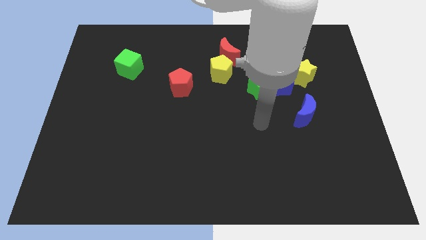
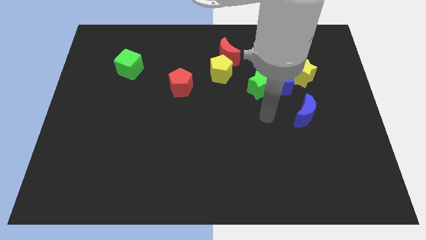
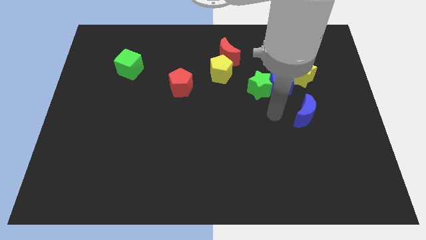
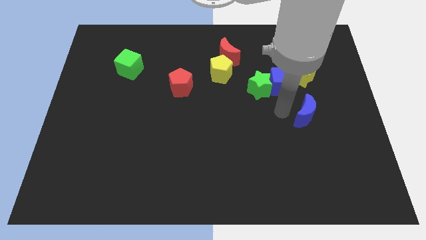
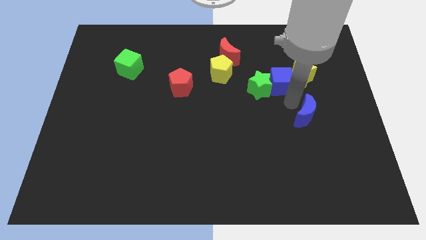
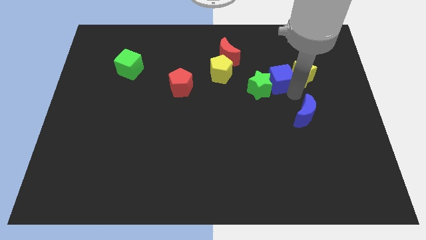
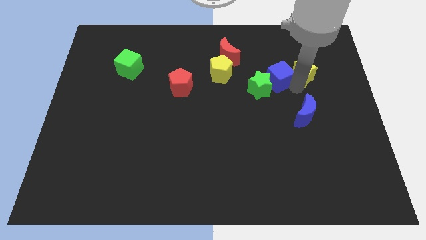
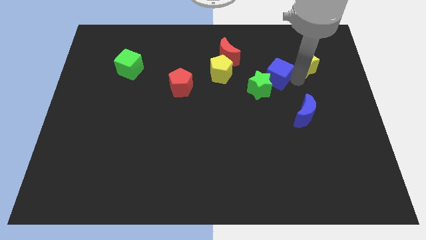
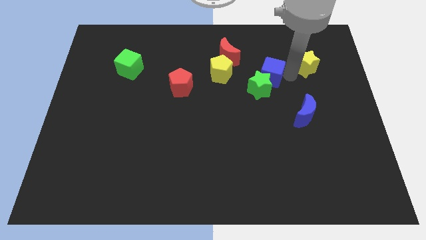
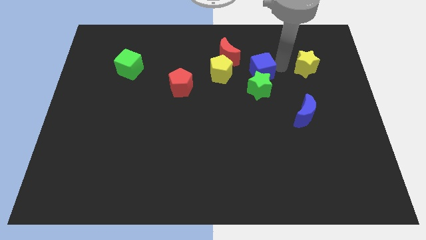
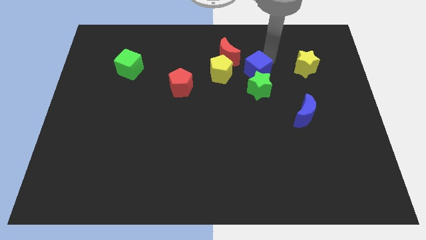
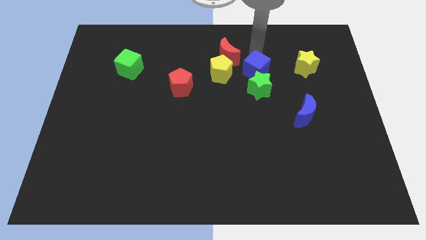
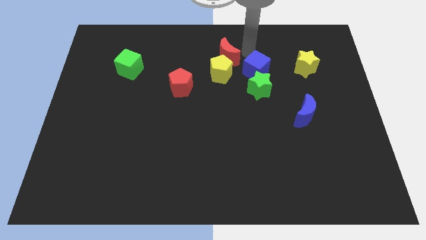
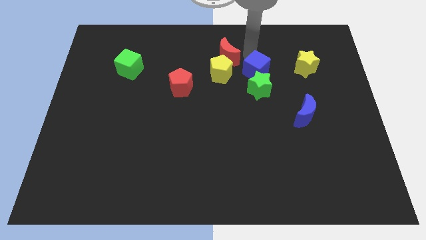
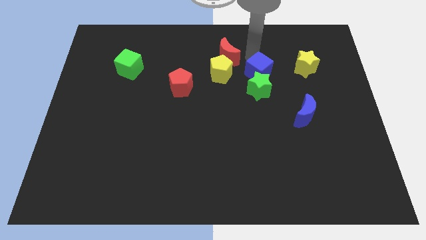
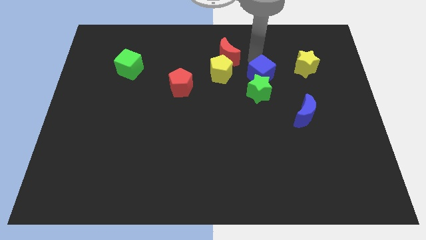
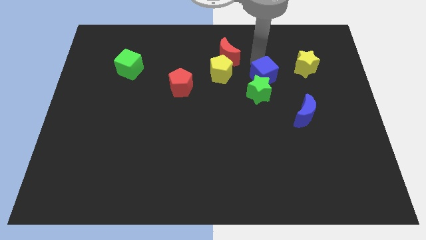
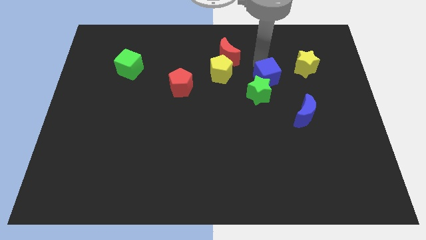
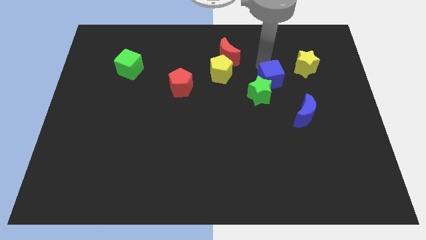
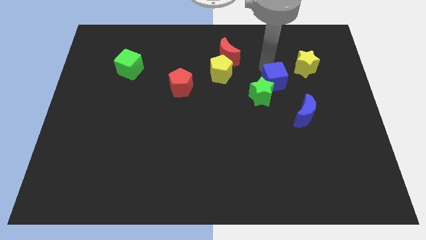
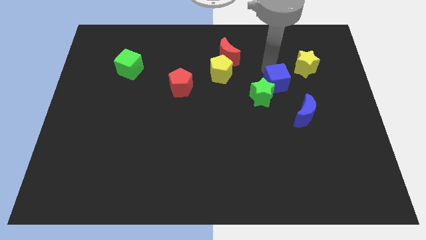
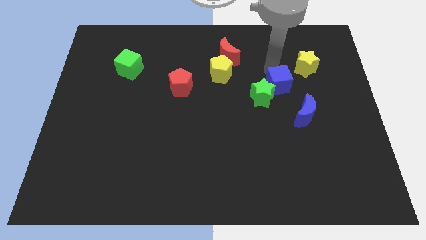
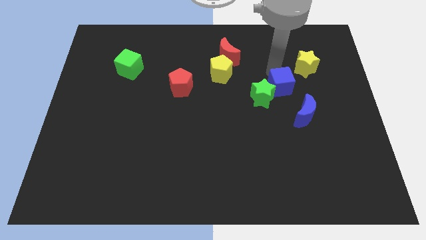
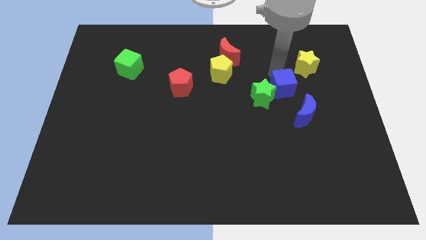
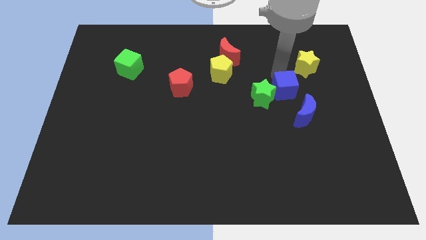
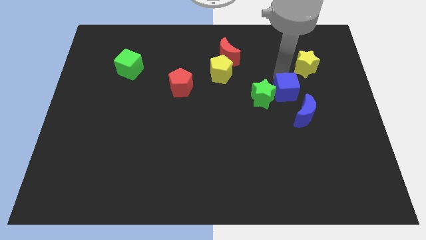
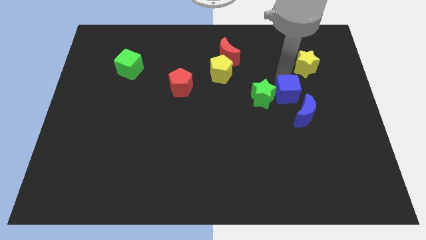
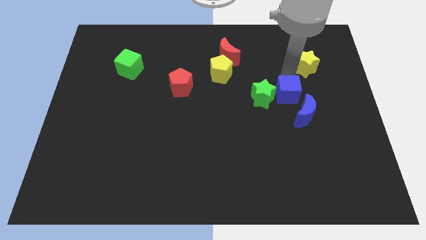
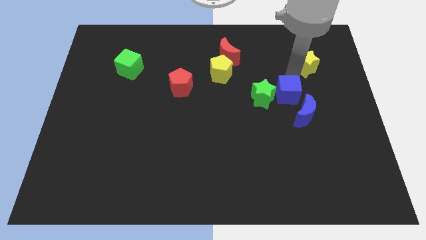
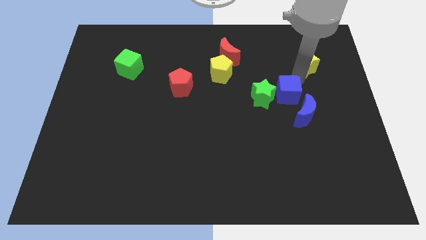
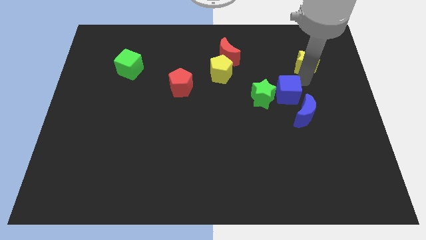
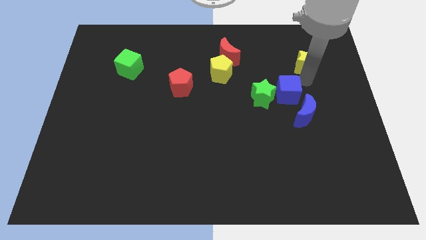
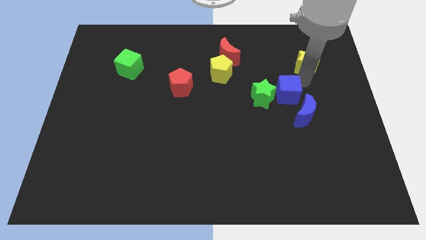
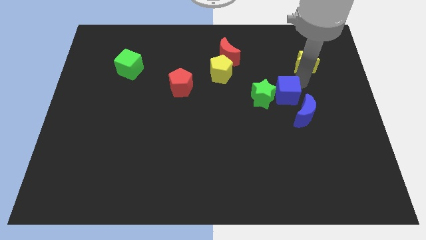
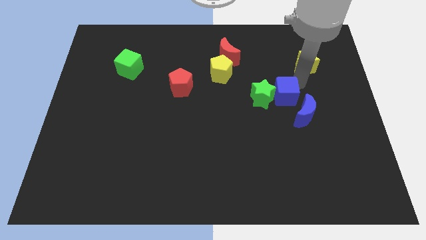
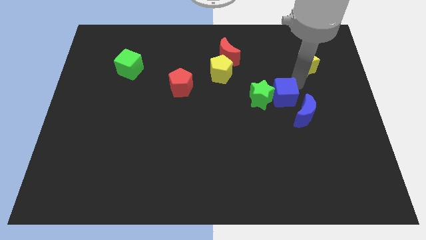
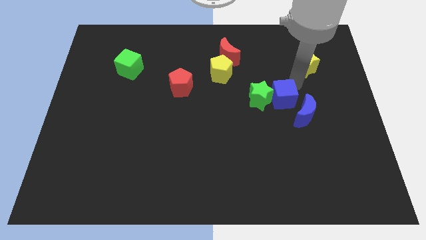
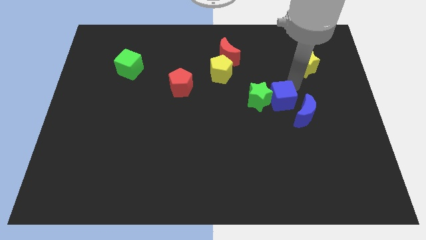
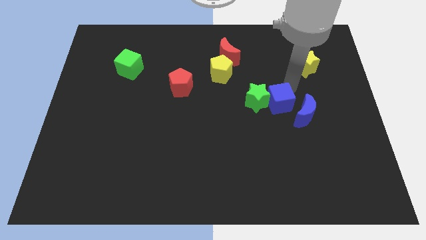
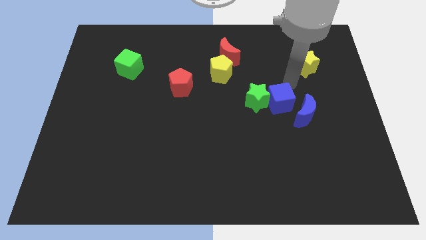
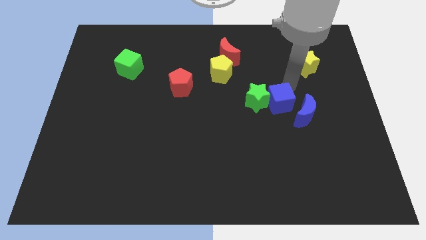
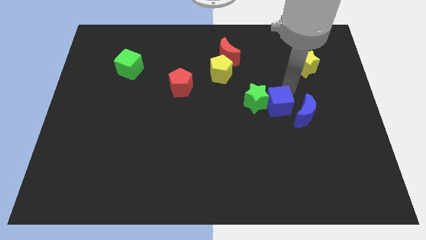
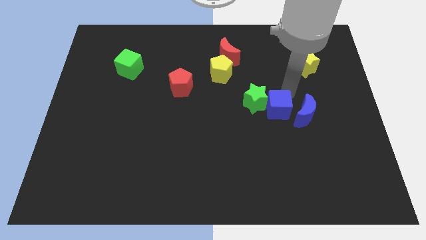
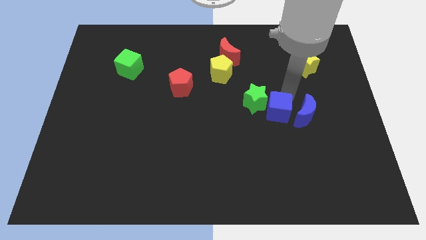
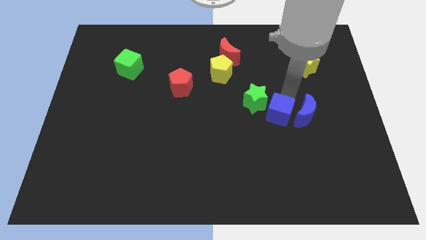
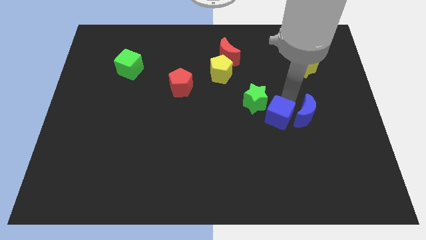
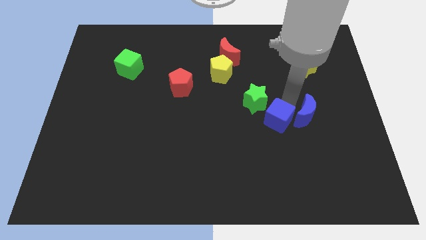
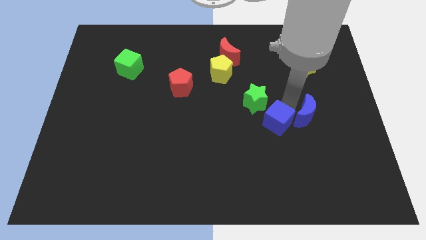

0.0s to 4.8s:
move the blue cube below the green star

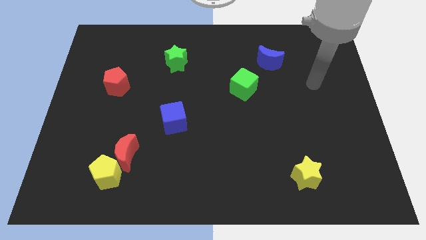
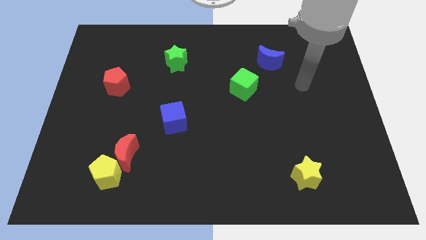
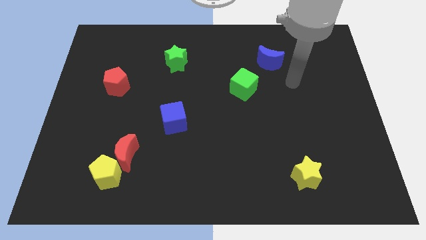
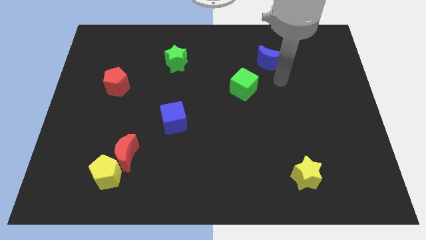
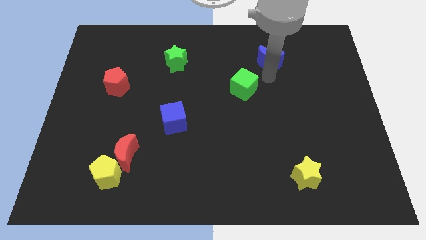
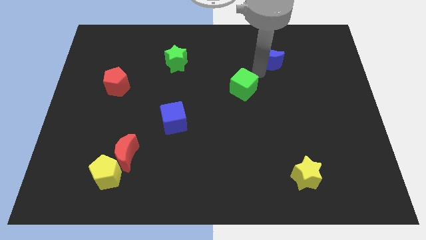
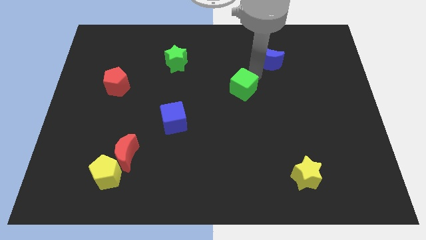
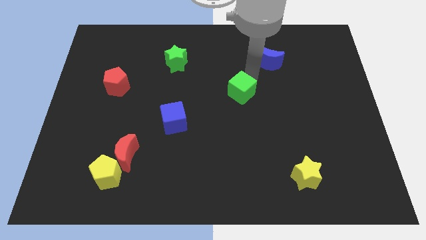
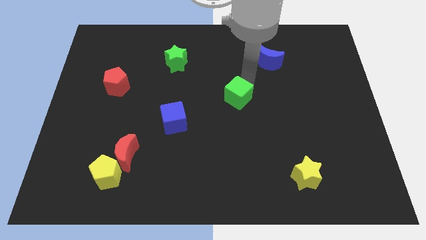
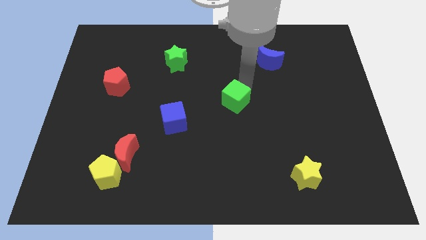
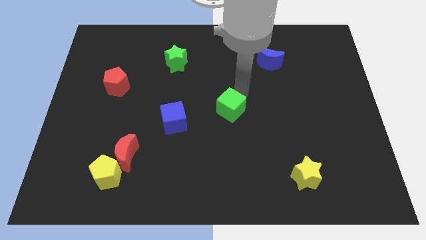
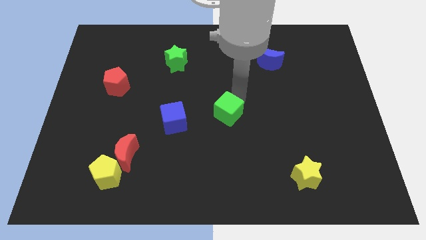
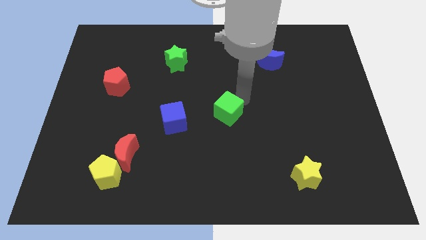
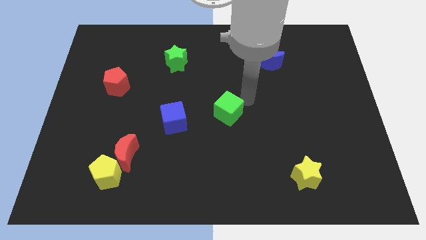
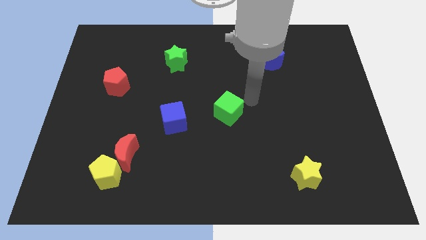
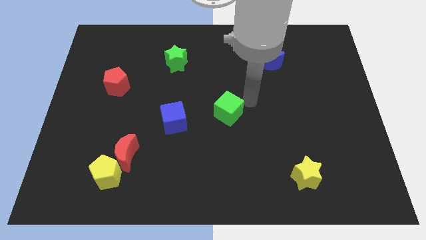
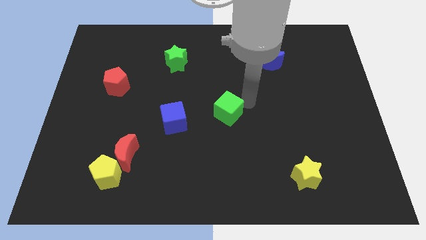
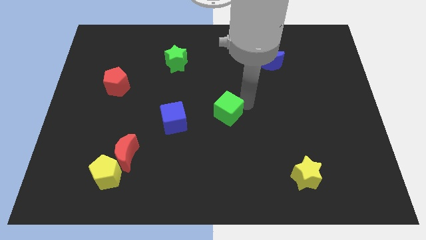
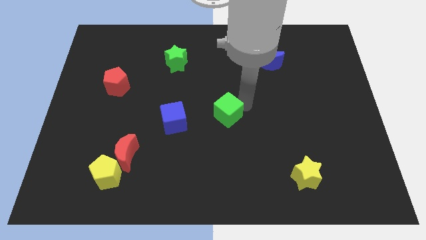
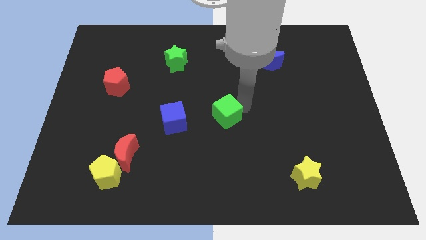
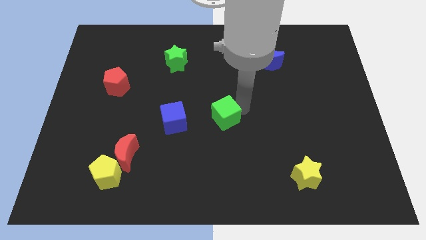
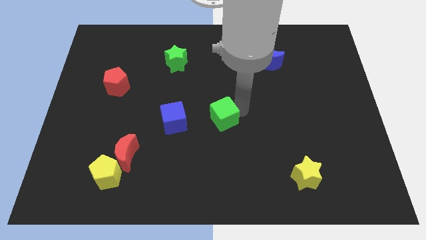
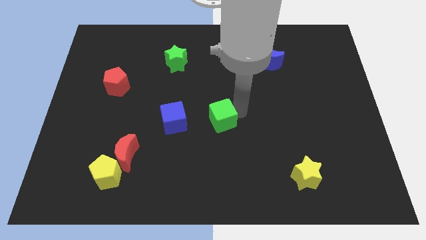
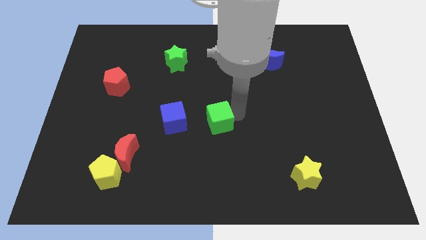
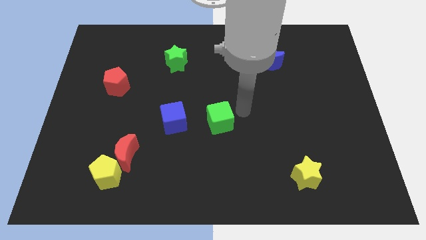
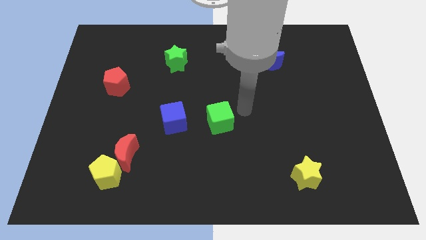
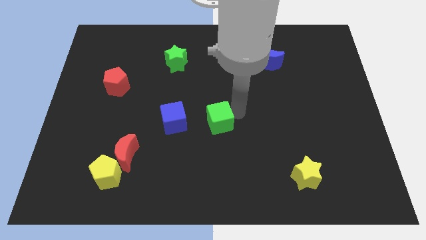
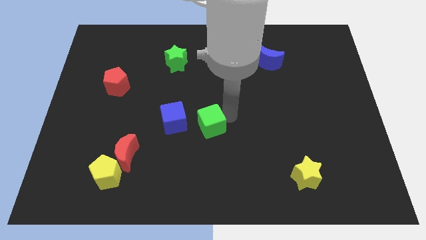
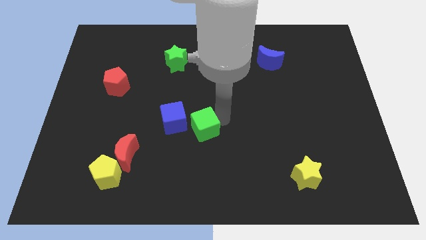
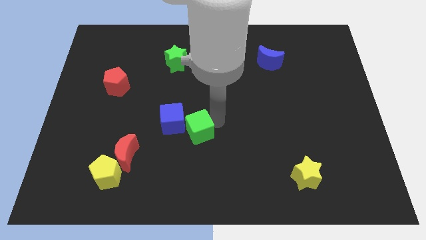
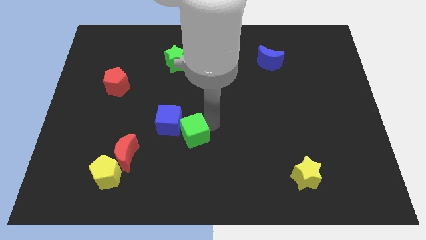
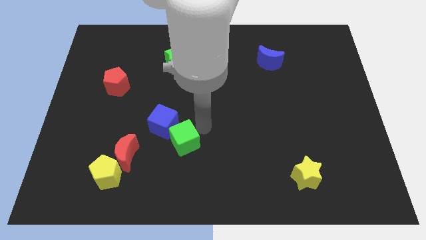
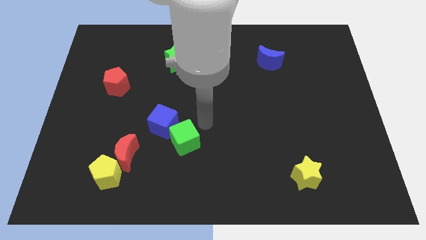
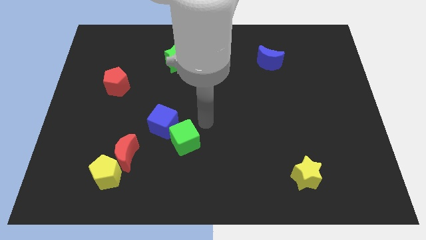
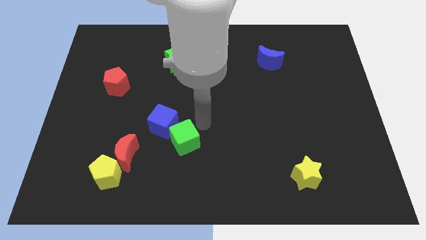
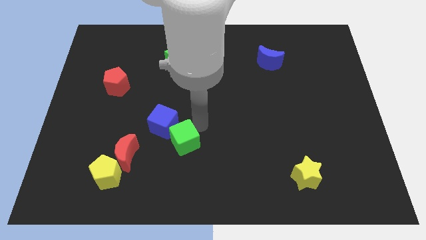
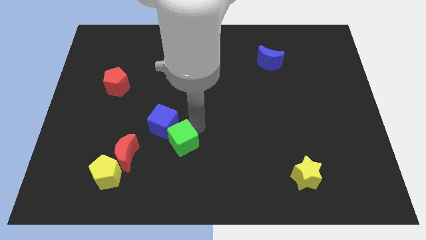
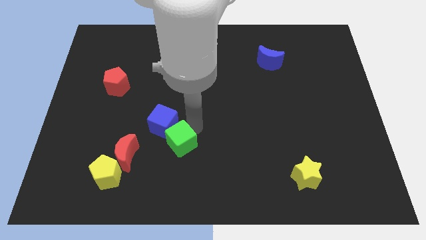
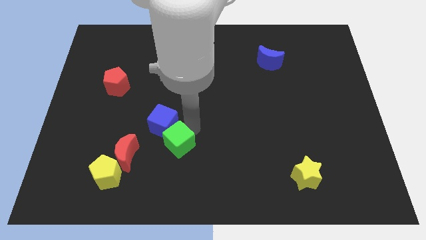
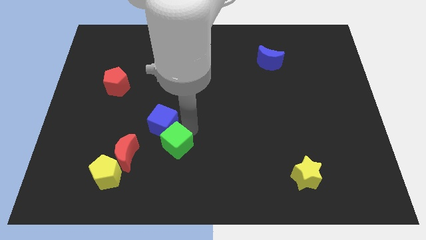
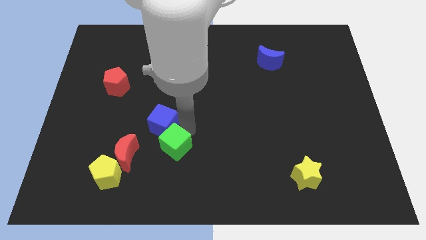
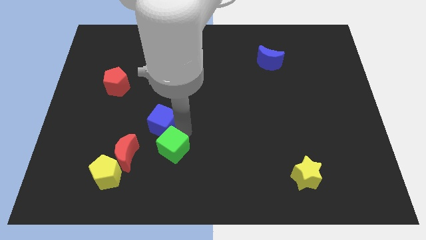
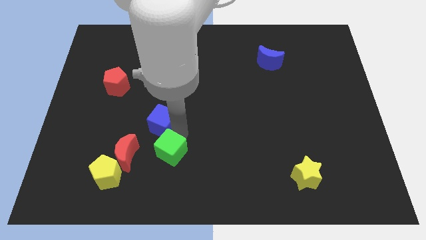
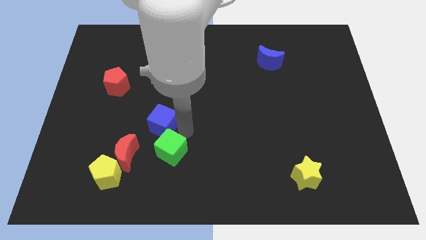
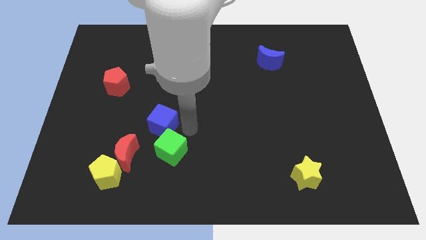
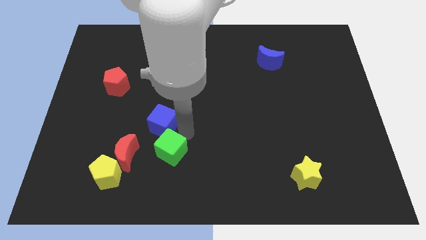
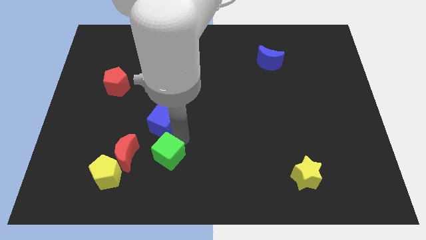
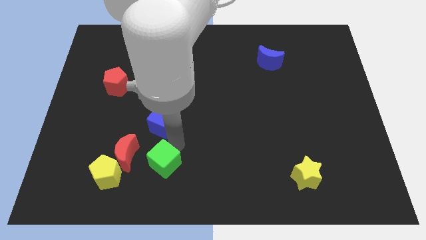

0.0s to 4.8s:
slide the green cube diagonally down and to the right of the red moon
